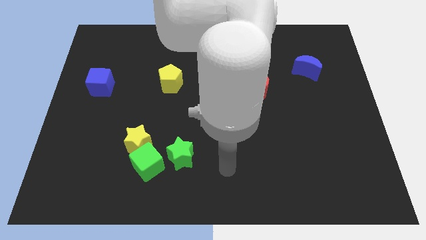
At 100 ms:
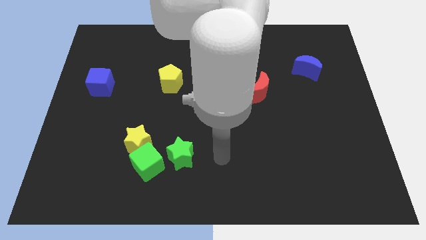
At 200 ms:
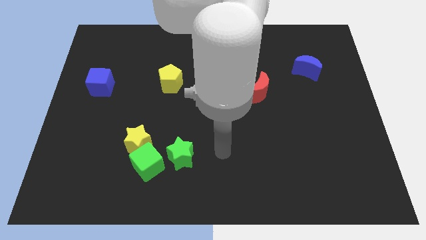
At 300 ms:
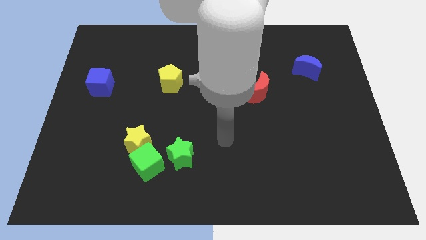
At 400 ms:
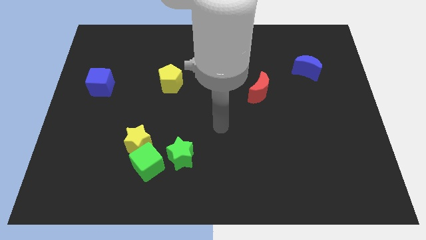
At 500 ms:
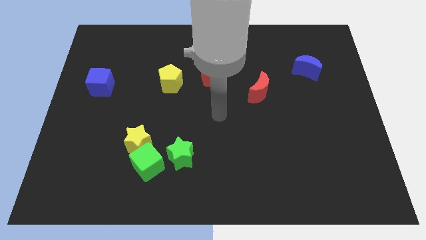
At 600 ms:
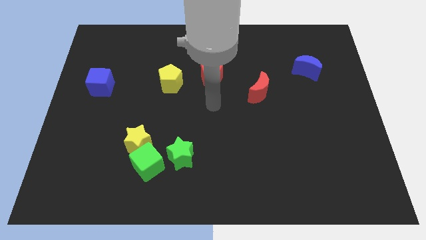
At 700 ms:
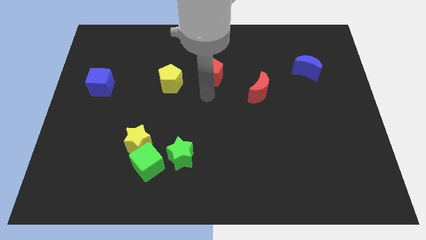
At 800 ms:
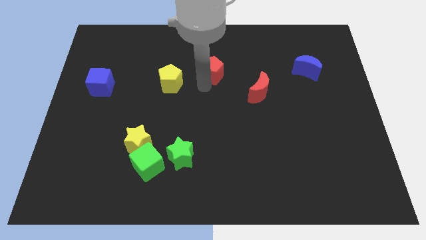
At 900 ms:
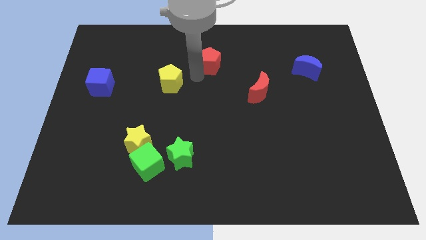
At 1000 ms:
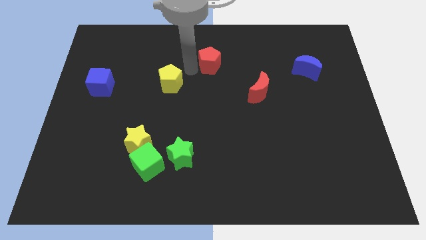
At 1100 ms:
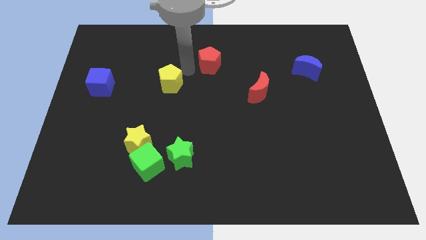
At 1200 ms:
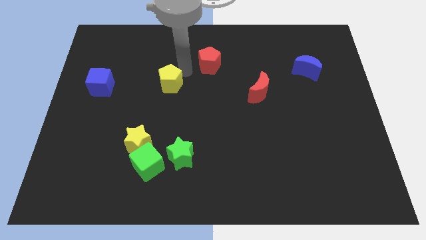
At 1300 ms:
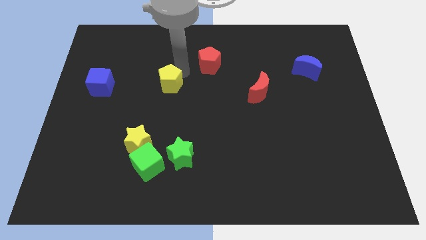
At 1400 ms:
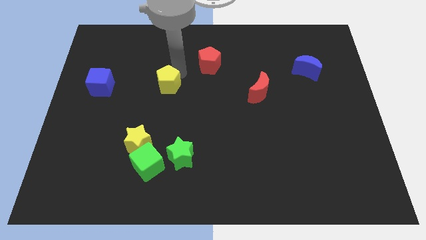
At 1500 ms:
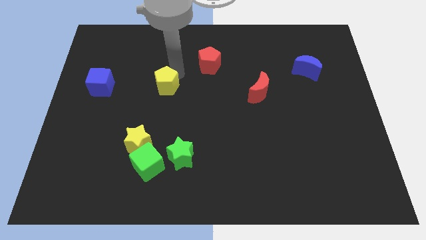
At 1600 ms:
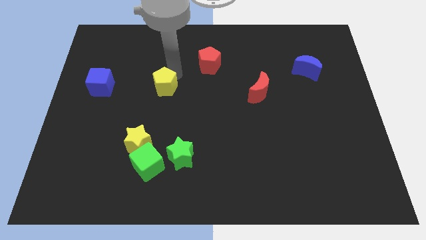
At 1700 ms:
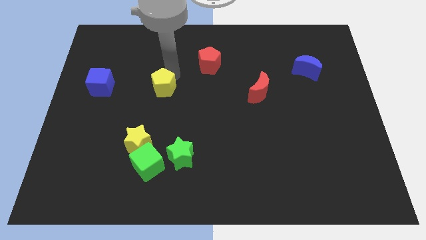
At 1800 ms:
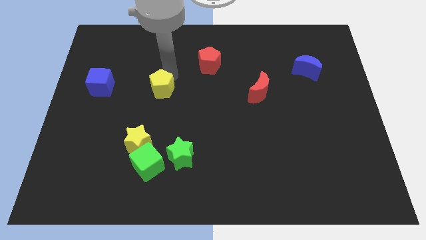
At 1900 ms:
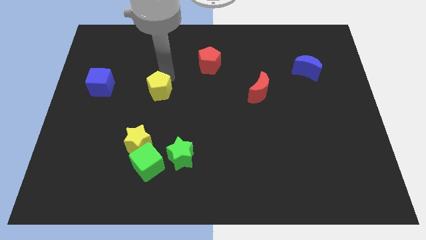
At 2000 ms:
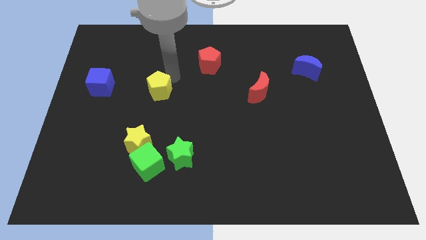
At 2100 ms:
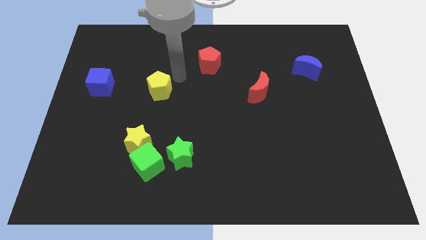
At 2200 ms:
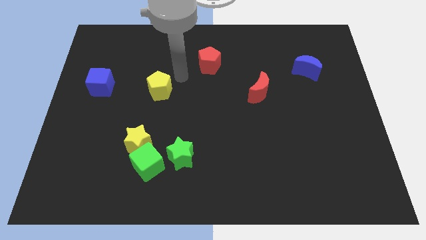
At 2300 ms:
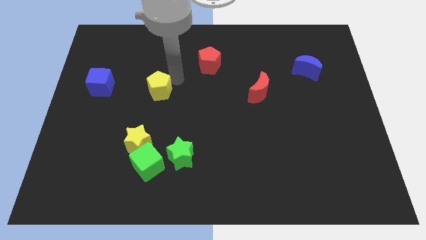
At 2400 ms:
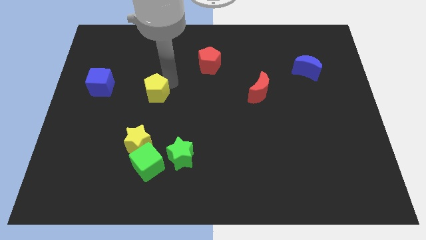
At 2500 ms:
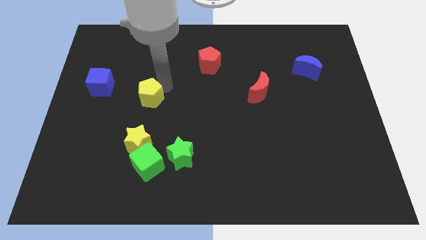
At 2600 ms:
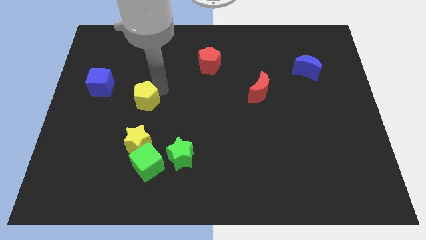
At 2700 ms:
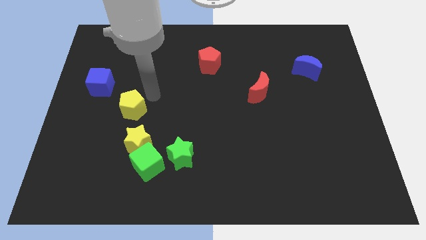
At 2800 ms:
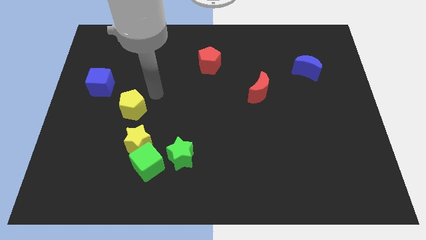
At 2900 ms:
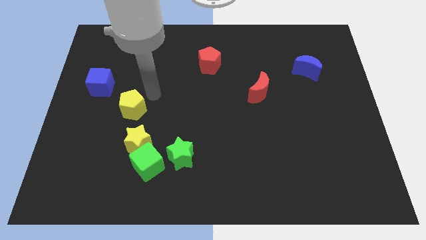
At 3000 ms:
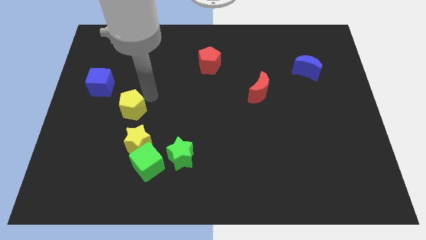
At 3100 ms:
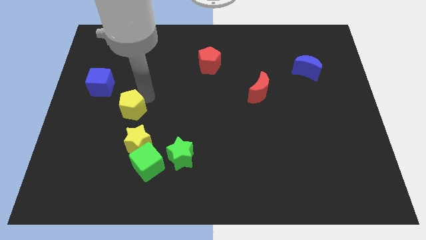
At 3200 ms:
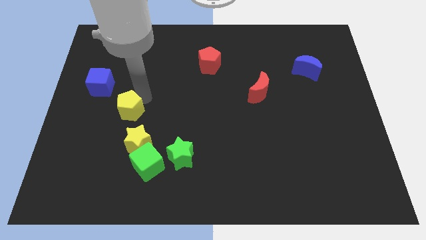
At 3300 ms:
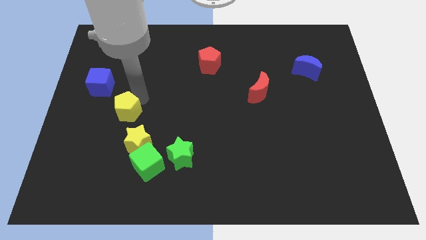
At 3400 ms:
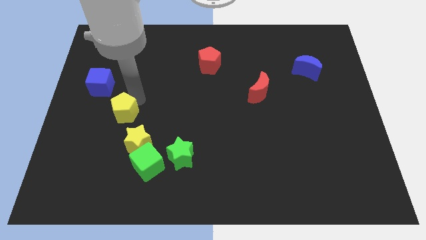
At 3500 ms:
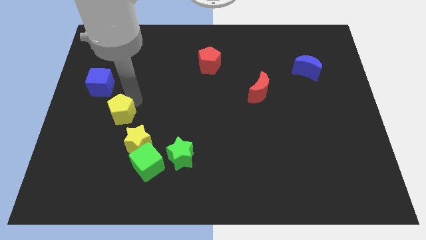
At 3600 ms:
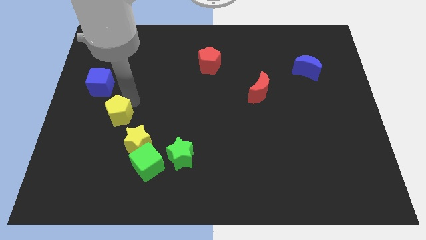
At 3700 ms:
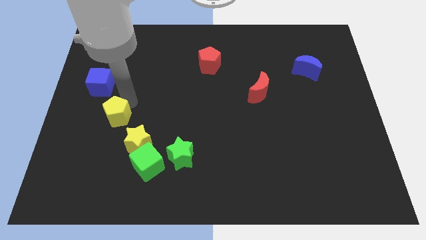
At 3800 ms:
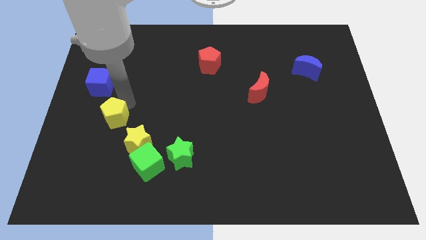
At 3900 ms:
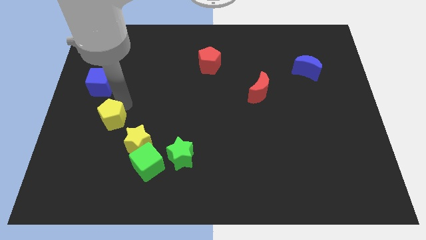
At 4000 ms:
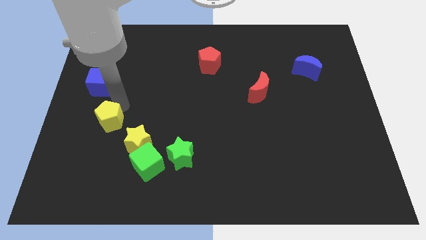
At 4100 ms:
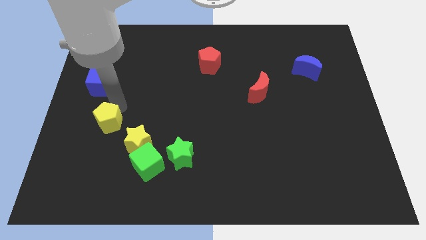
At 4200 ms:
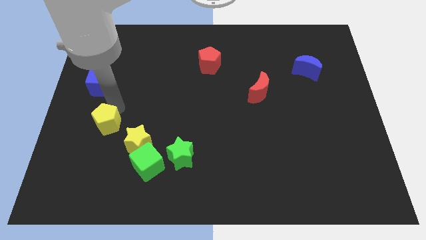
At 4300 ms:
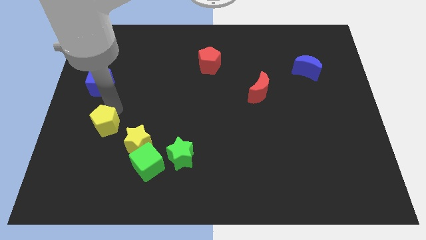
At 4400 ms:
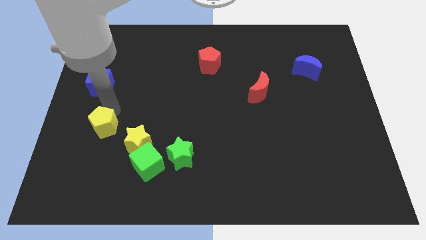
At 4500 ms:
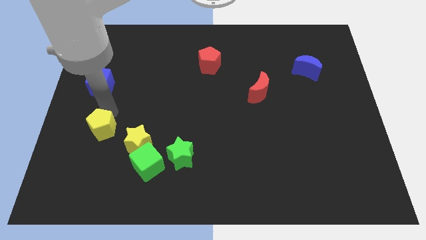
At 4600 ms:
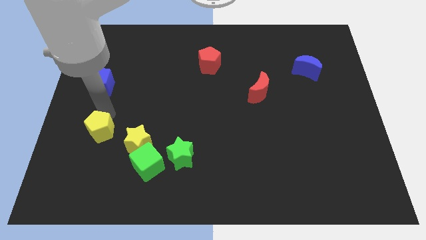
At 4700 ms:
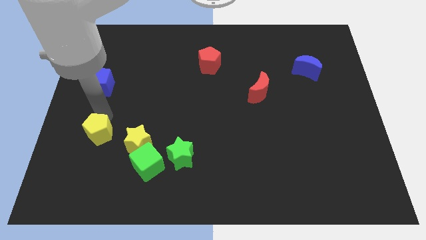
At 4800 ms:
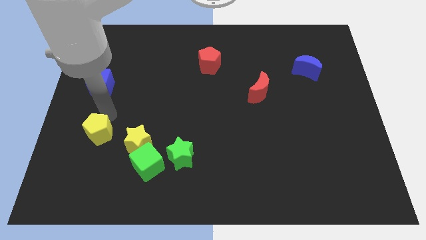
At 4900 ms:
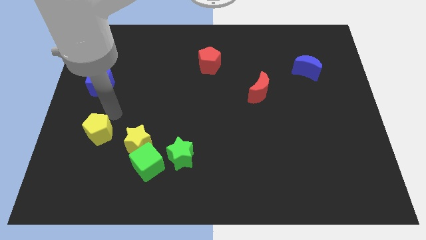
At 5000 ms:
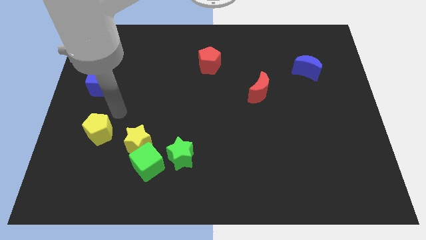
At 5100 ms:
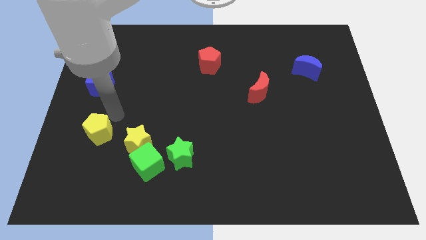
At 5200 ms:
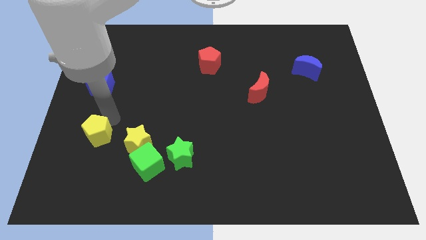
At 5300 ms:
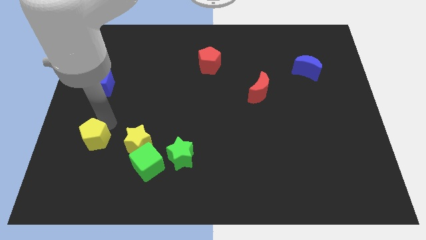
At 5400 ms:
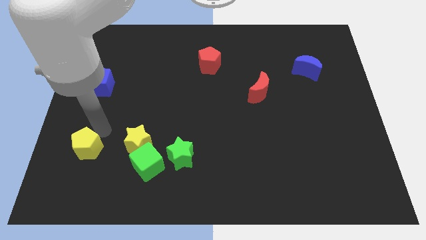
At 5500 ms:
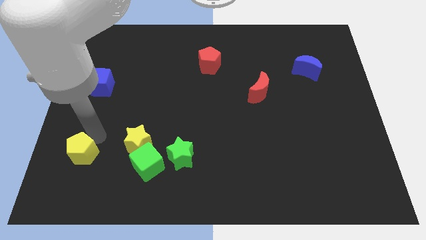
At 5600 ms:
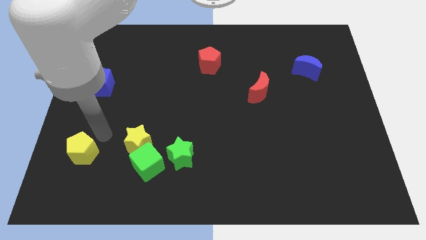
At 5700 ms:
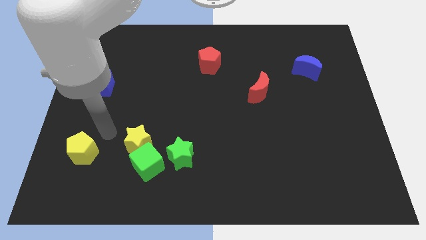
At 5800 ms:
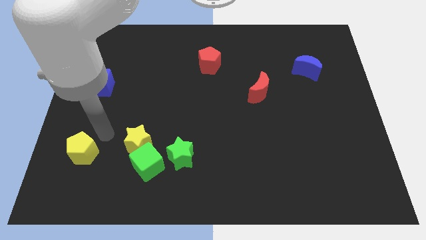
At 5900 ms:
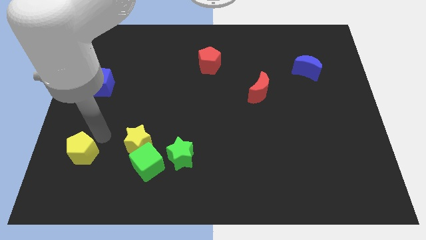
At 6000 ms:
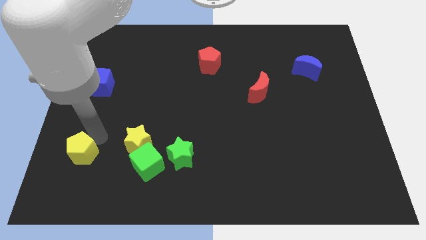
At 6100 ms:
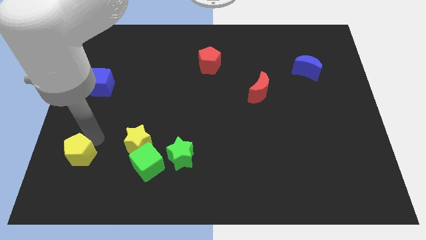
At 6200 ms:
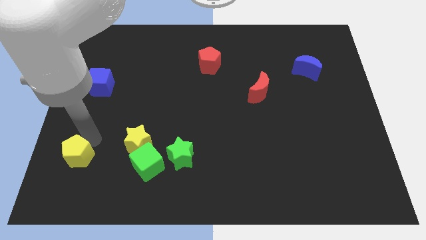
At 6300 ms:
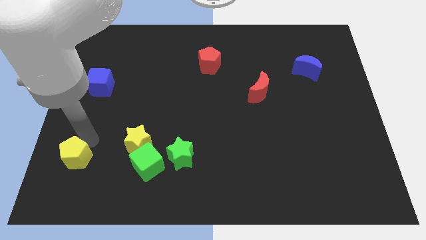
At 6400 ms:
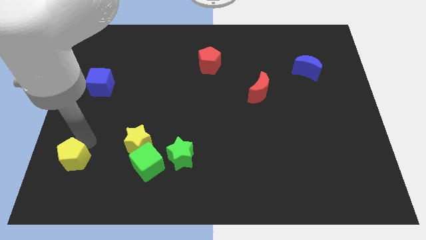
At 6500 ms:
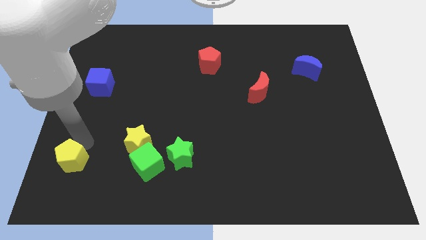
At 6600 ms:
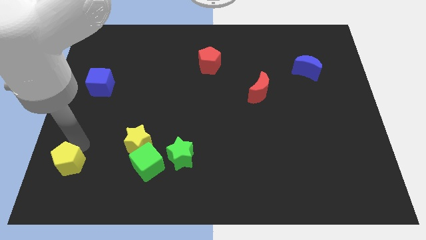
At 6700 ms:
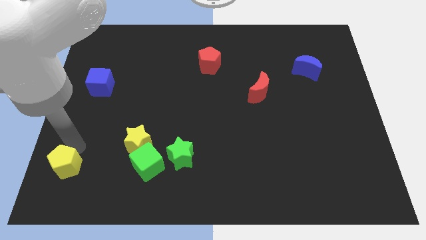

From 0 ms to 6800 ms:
move the yellow pentagon to the bottom left corner
